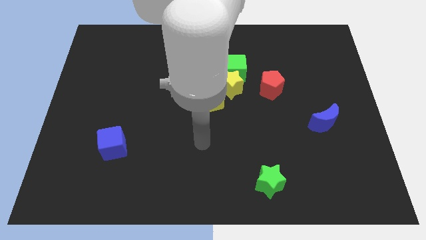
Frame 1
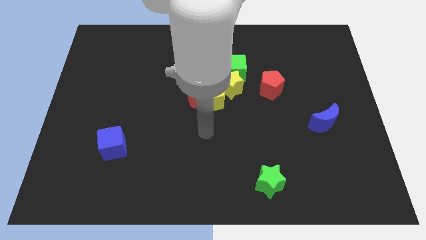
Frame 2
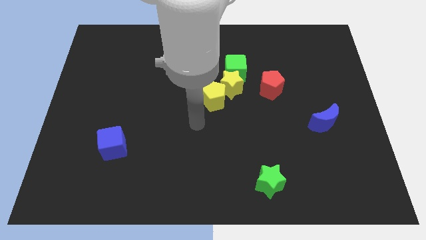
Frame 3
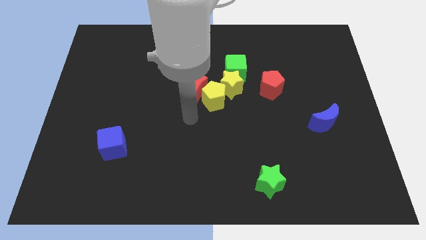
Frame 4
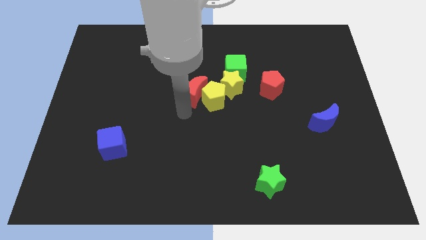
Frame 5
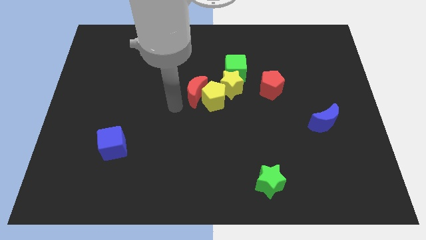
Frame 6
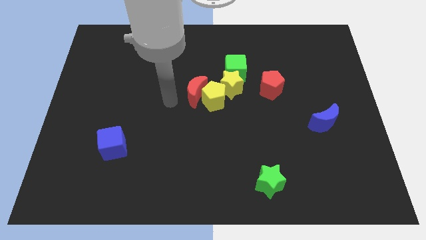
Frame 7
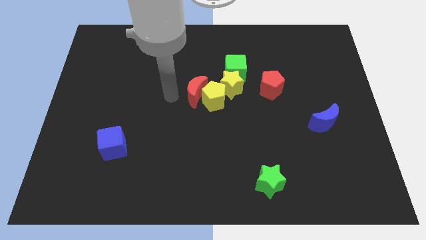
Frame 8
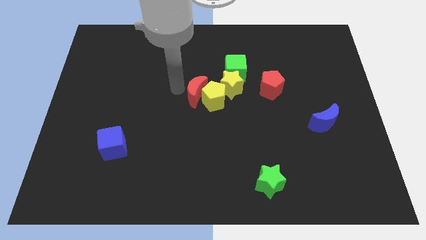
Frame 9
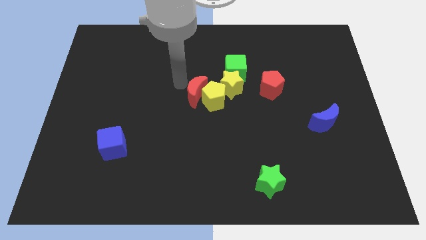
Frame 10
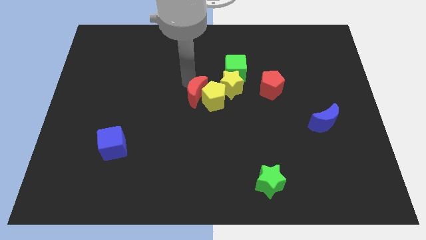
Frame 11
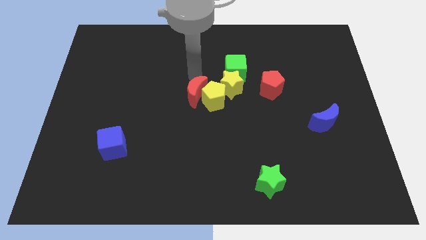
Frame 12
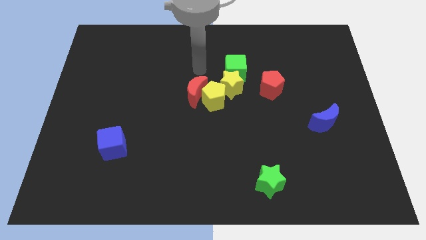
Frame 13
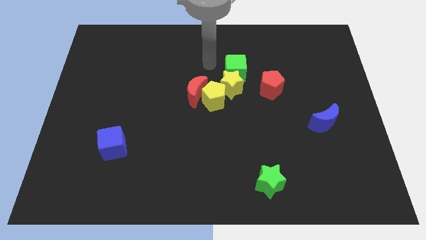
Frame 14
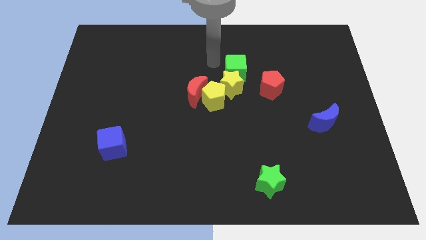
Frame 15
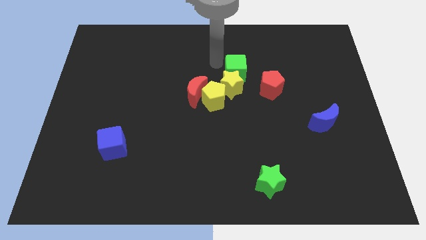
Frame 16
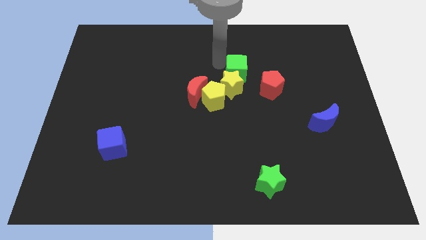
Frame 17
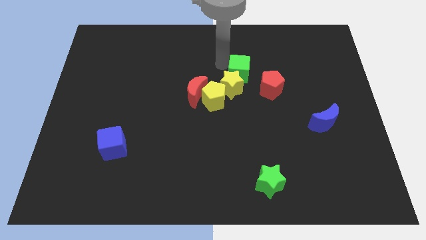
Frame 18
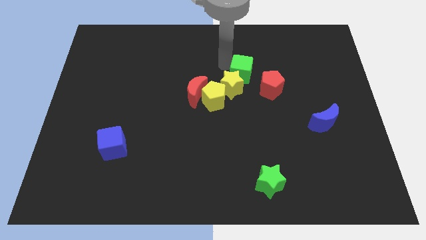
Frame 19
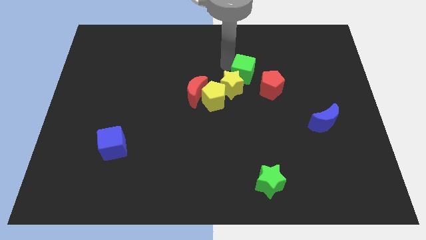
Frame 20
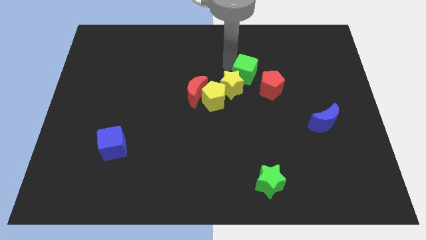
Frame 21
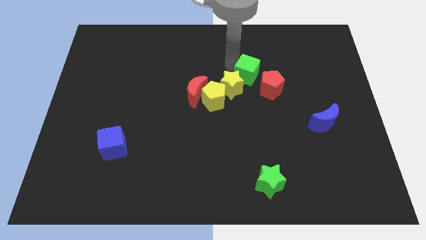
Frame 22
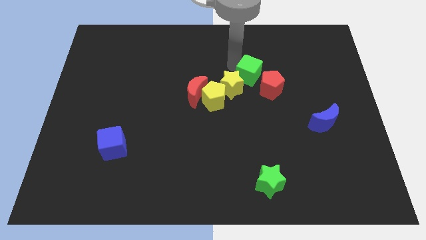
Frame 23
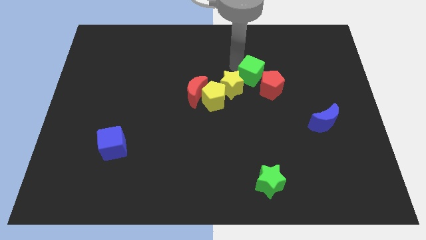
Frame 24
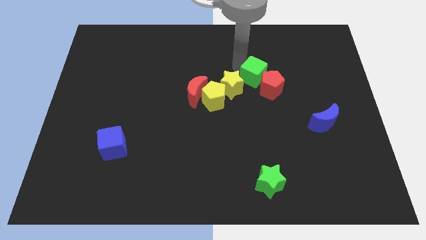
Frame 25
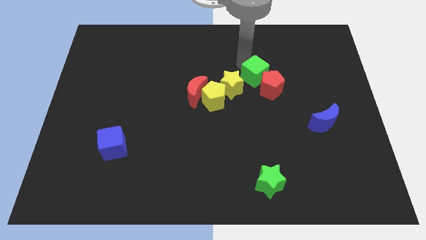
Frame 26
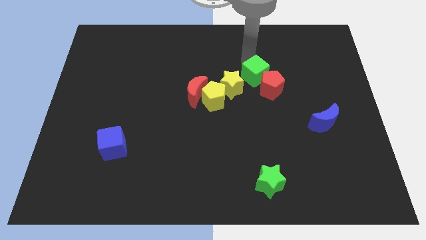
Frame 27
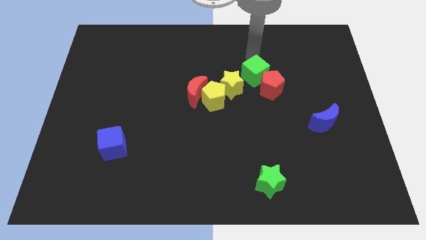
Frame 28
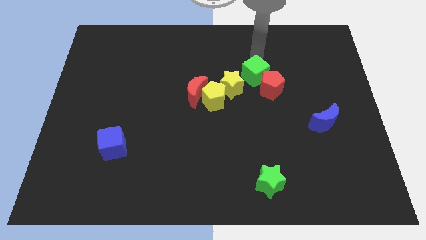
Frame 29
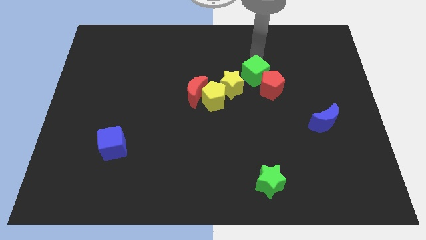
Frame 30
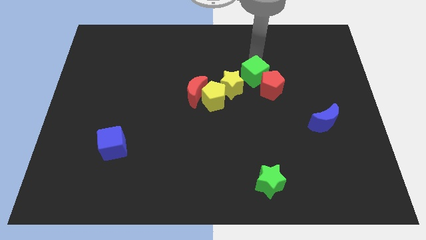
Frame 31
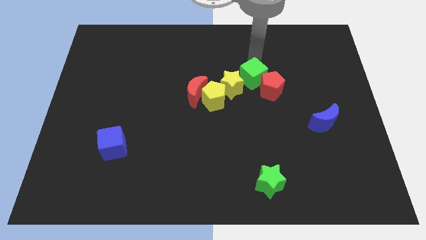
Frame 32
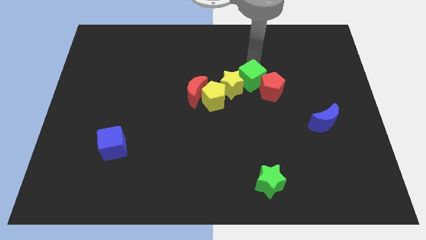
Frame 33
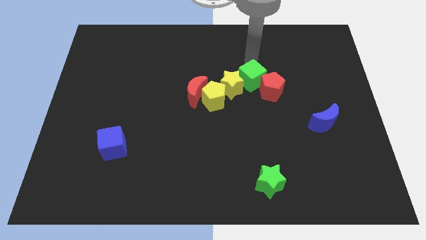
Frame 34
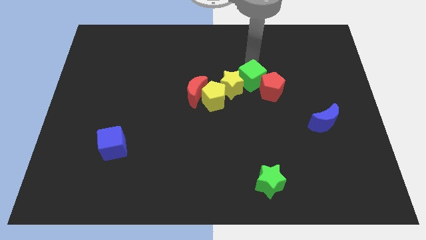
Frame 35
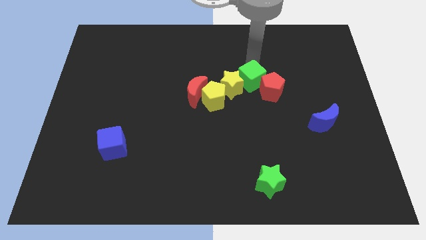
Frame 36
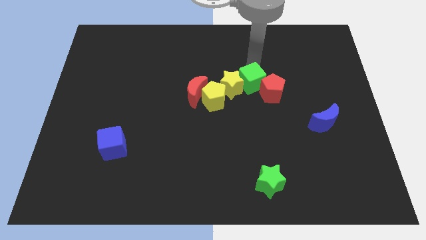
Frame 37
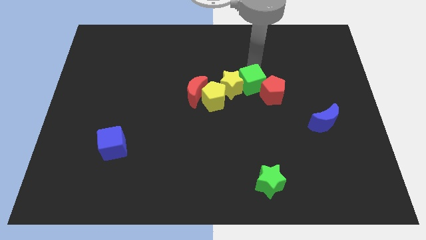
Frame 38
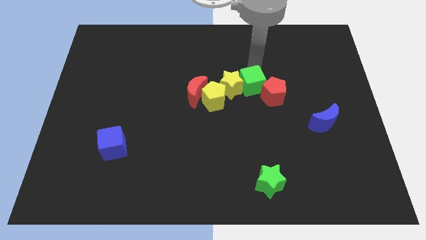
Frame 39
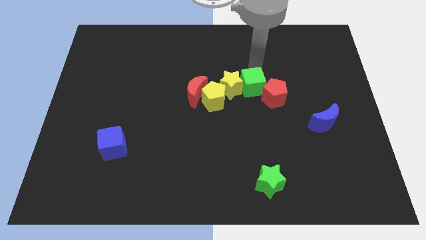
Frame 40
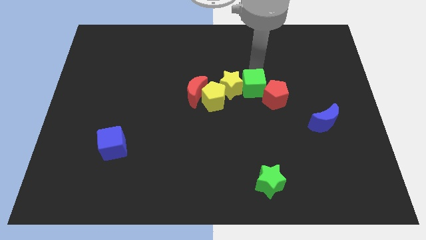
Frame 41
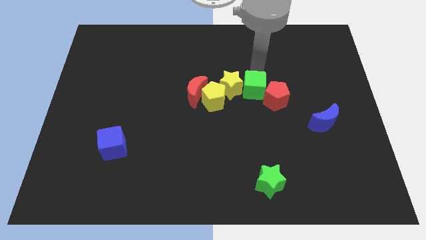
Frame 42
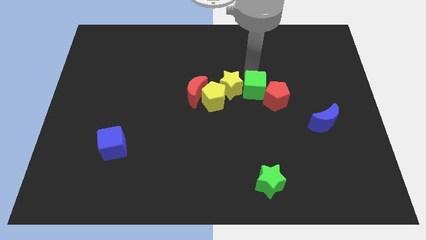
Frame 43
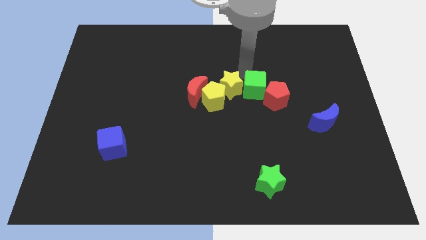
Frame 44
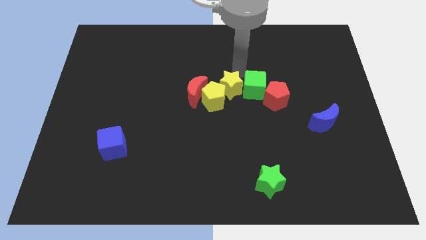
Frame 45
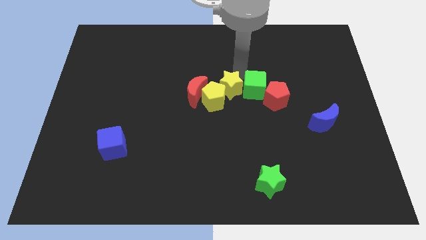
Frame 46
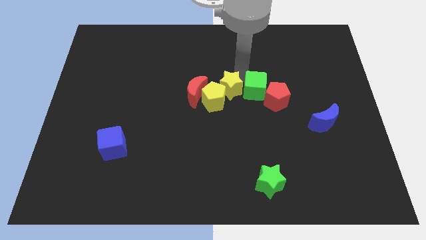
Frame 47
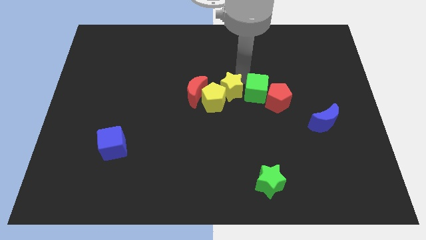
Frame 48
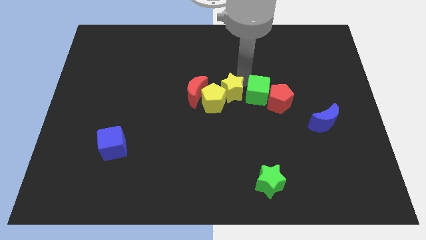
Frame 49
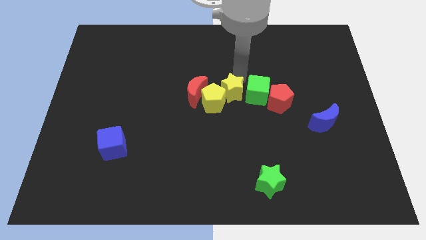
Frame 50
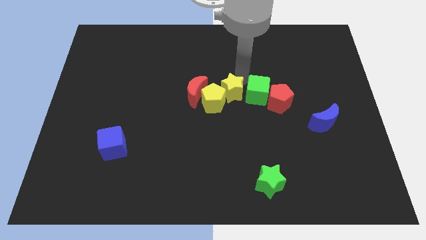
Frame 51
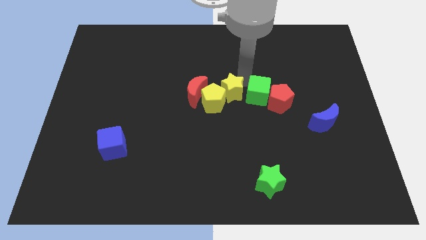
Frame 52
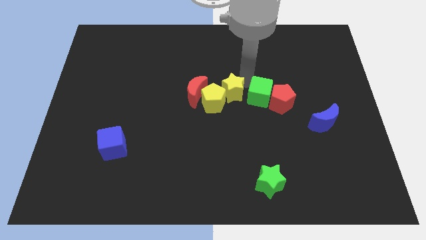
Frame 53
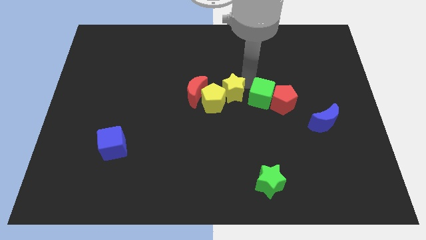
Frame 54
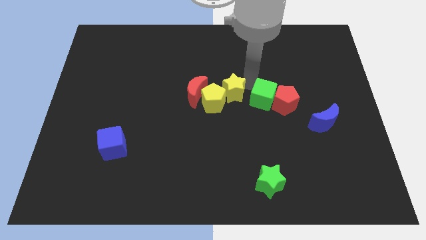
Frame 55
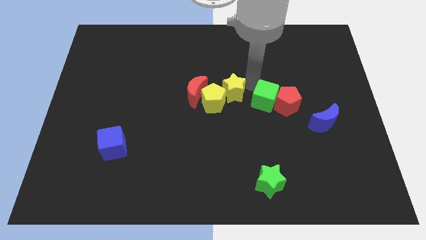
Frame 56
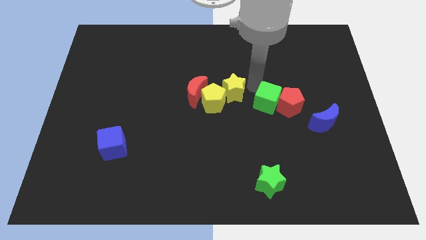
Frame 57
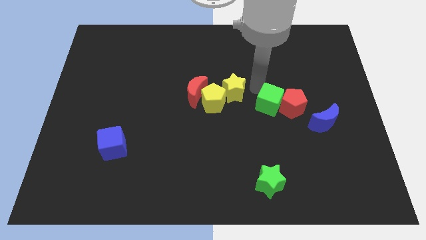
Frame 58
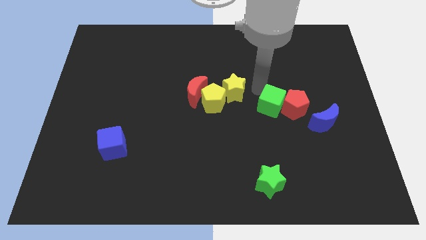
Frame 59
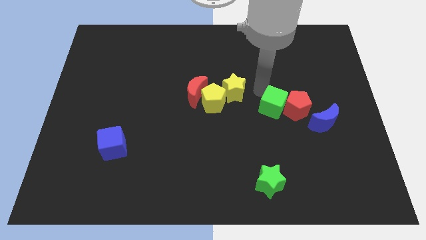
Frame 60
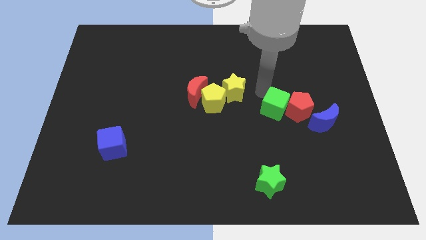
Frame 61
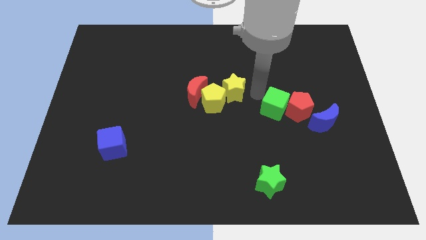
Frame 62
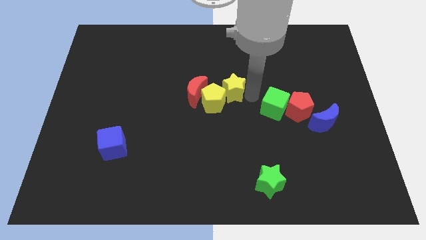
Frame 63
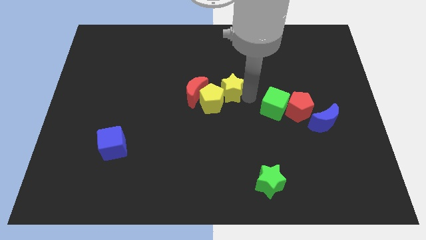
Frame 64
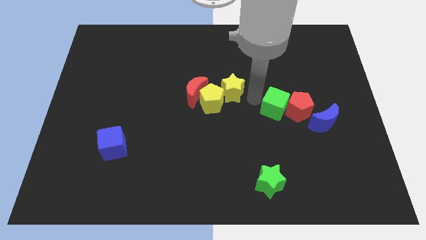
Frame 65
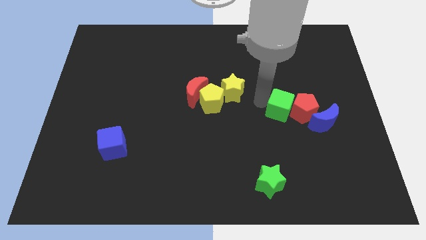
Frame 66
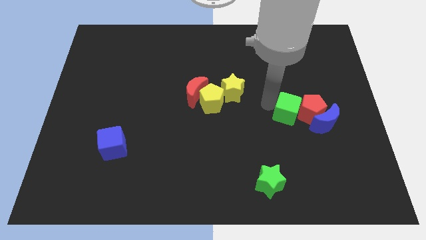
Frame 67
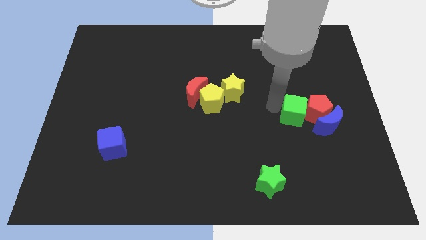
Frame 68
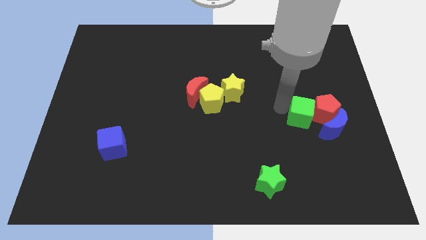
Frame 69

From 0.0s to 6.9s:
push the green cube down and then to the right

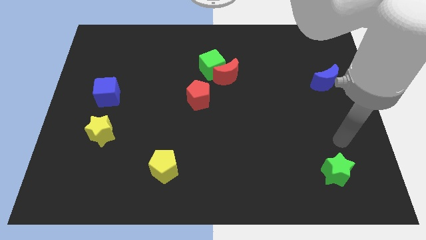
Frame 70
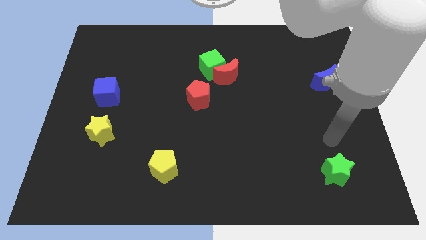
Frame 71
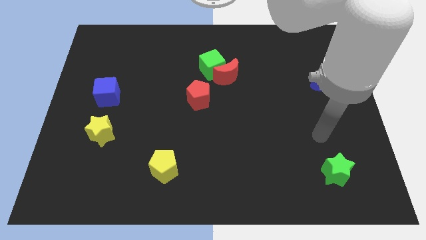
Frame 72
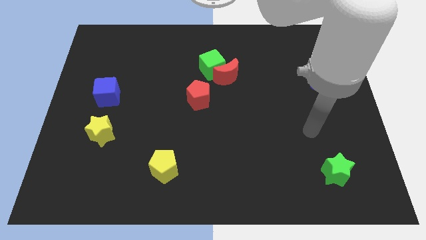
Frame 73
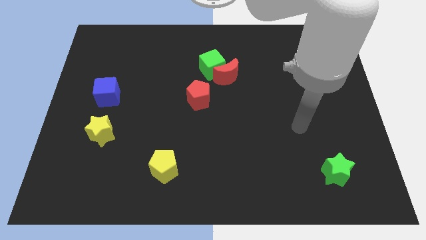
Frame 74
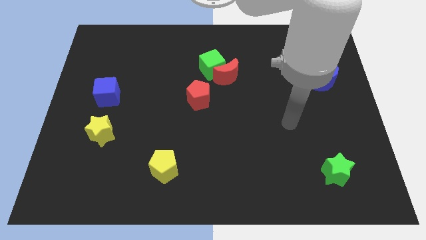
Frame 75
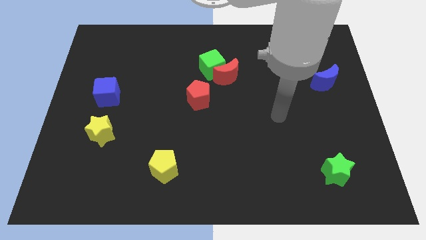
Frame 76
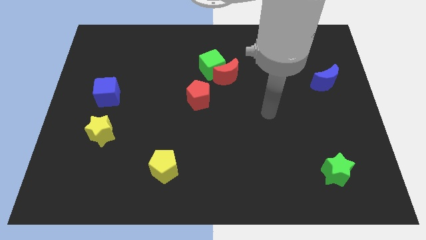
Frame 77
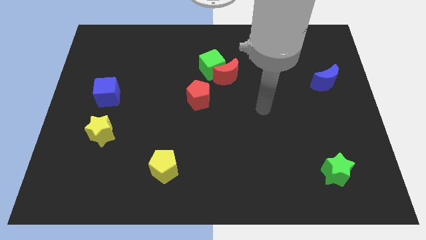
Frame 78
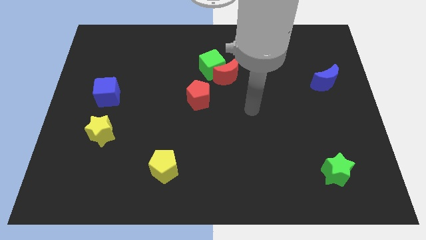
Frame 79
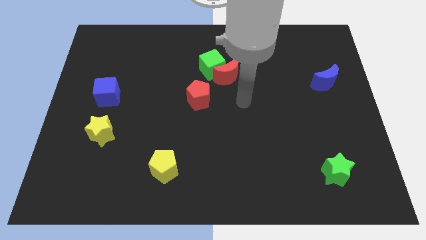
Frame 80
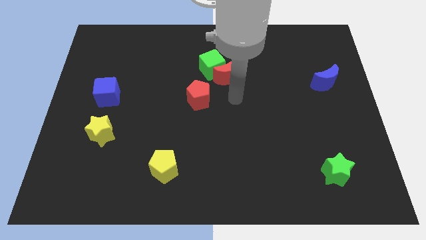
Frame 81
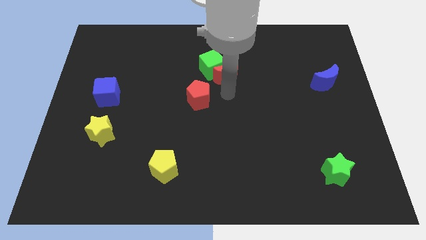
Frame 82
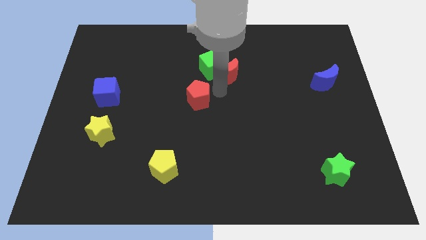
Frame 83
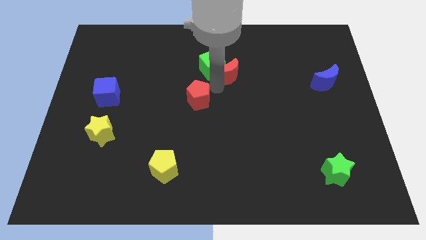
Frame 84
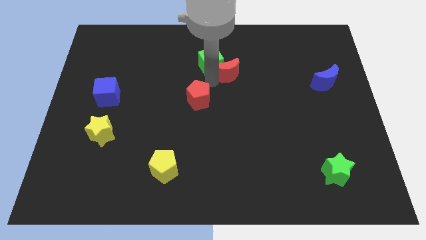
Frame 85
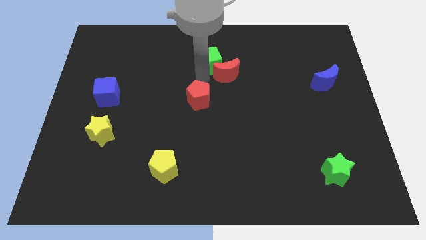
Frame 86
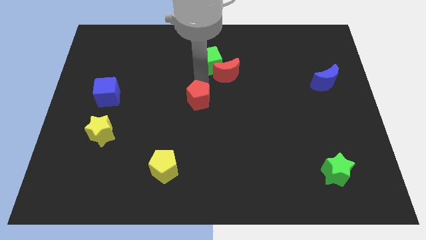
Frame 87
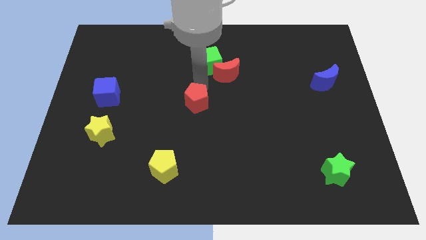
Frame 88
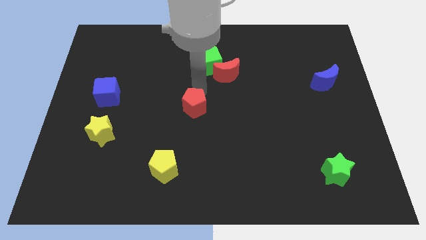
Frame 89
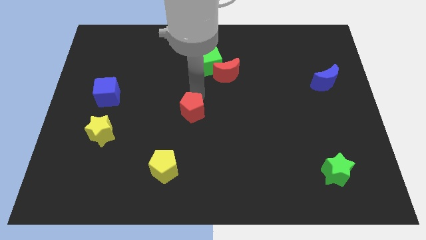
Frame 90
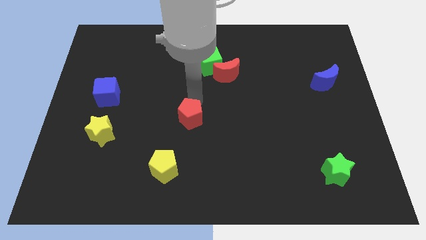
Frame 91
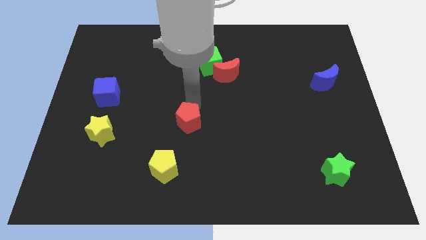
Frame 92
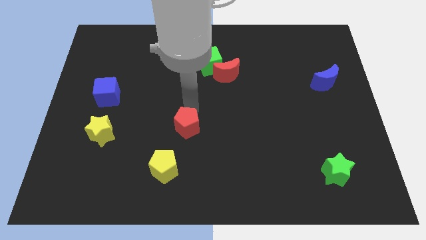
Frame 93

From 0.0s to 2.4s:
slightly push the red pentagon down
